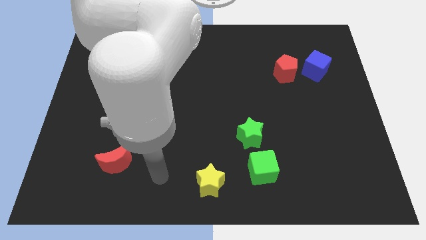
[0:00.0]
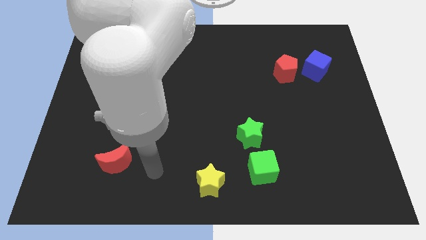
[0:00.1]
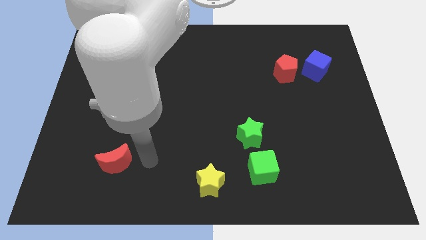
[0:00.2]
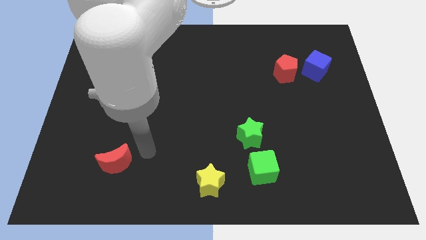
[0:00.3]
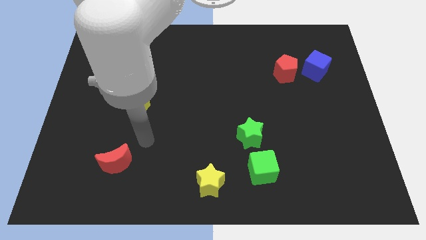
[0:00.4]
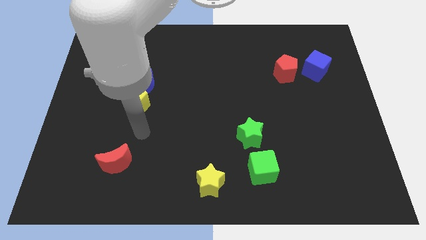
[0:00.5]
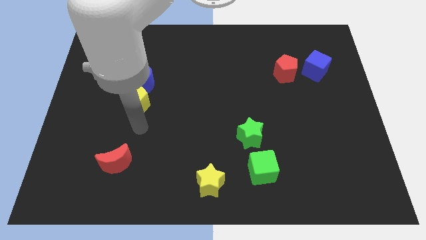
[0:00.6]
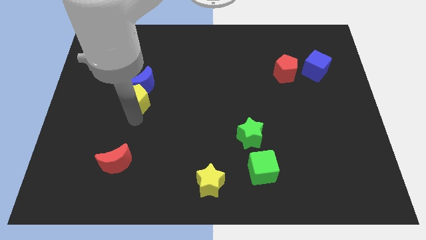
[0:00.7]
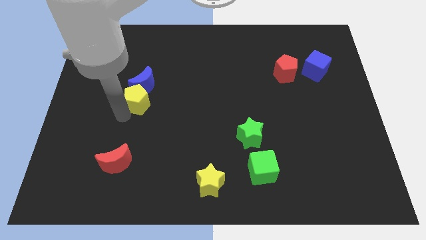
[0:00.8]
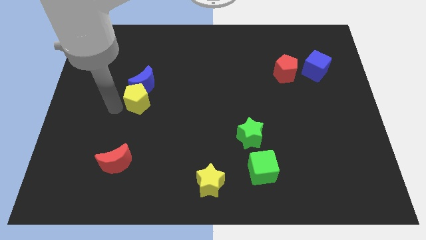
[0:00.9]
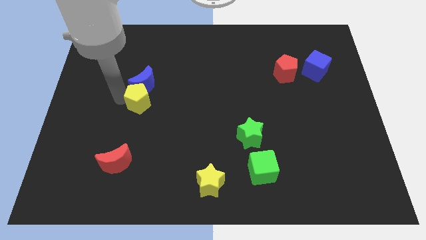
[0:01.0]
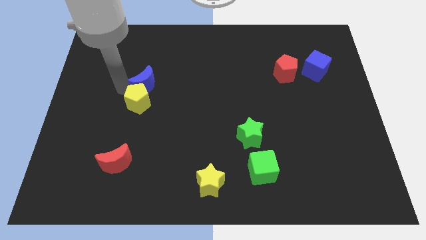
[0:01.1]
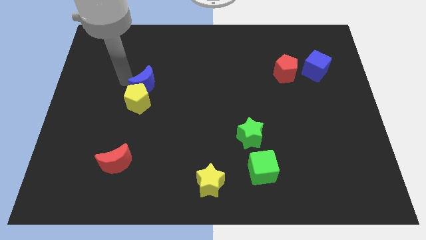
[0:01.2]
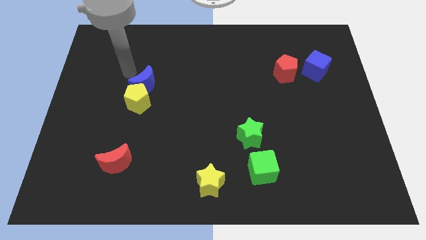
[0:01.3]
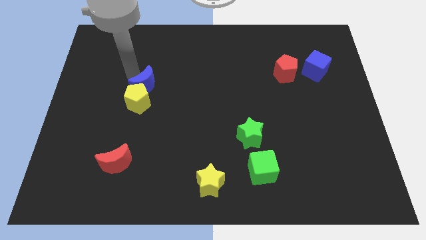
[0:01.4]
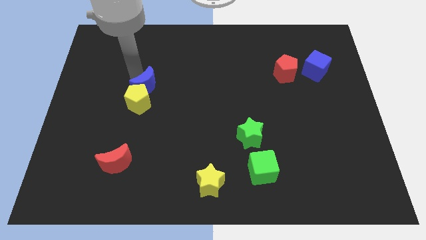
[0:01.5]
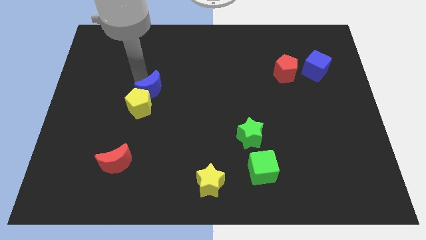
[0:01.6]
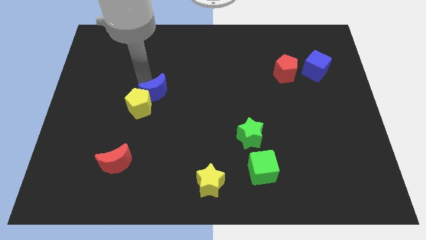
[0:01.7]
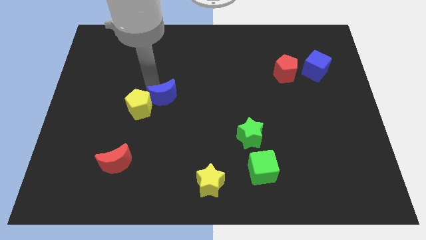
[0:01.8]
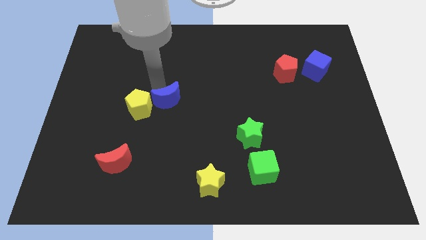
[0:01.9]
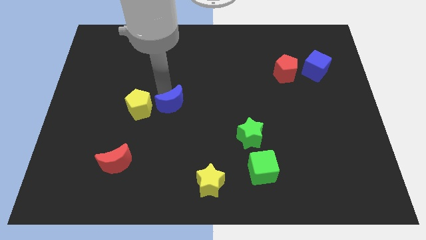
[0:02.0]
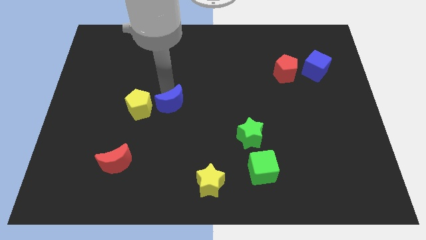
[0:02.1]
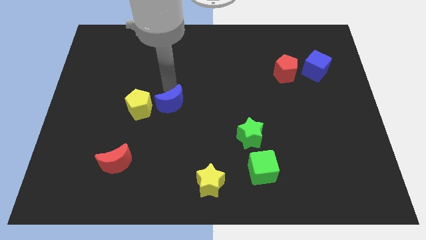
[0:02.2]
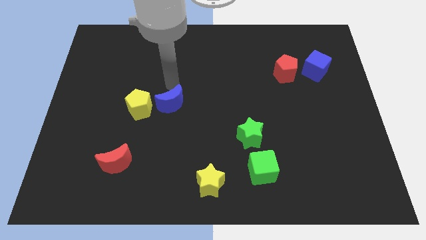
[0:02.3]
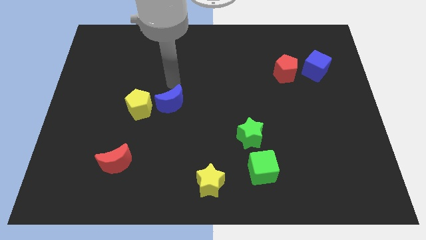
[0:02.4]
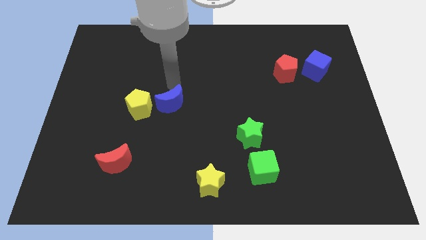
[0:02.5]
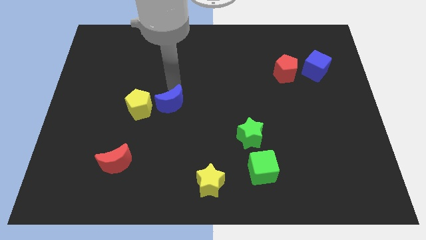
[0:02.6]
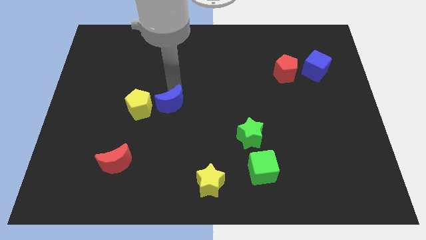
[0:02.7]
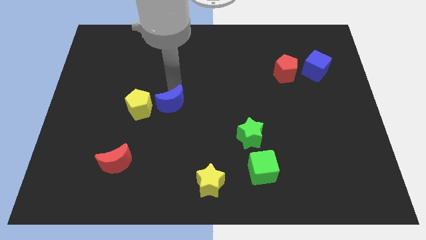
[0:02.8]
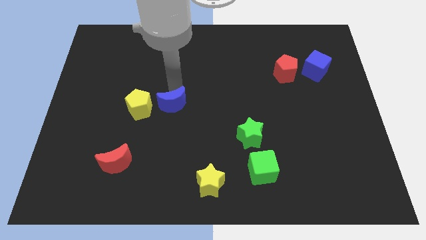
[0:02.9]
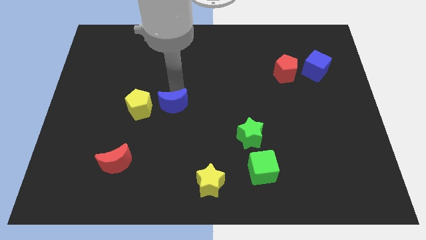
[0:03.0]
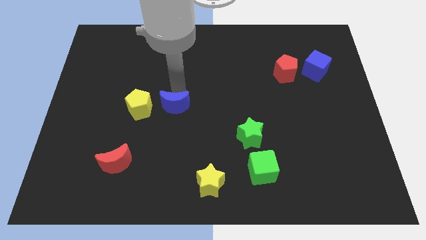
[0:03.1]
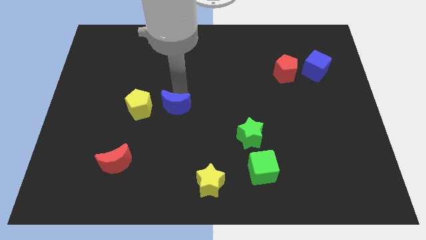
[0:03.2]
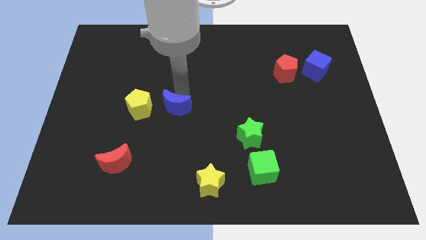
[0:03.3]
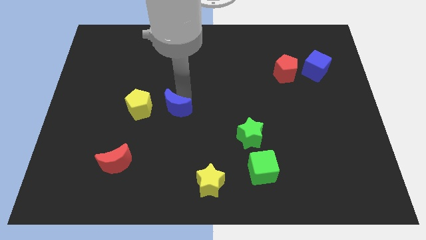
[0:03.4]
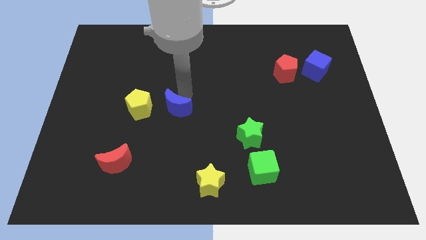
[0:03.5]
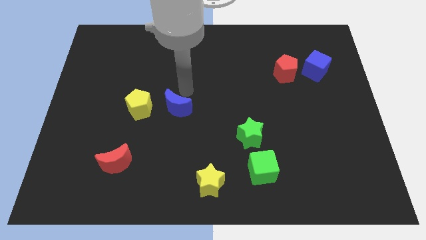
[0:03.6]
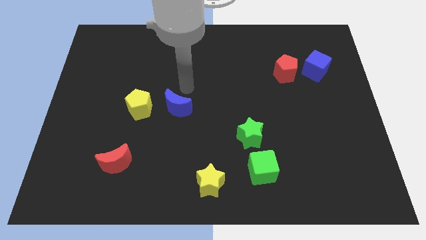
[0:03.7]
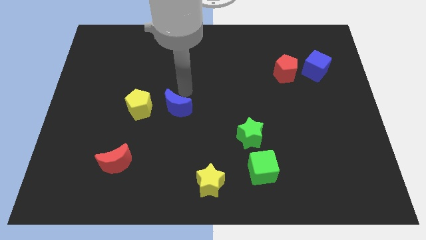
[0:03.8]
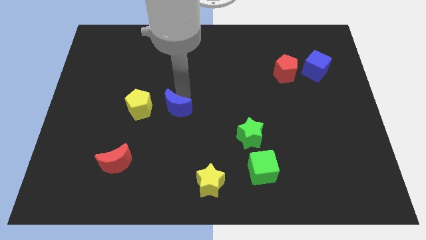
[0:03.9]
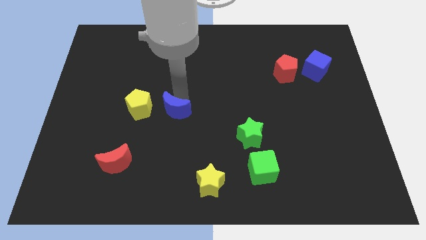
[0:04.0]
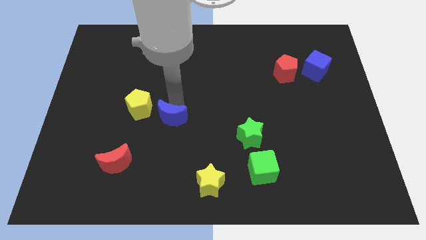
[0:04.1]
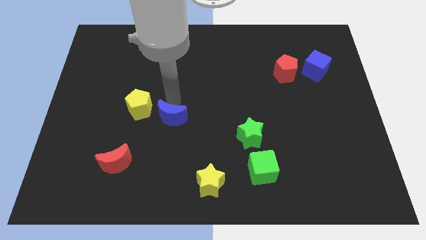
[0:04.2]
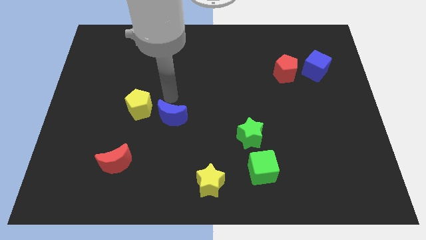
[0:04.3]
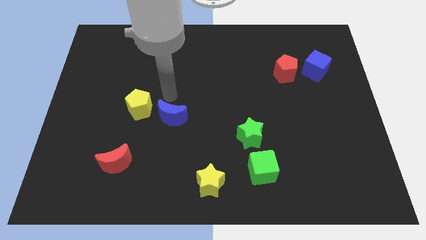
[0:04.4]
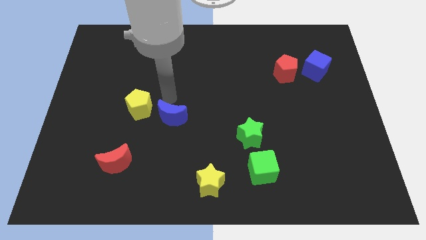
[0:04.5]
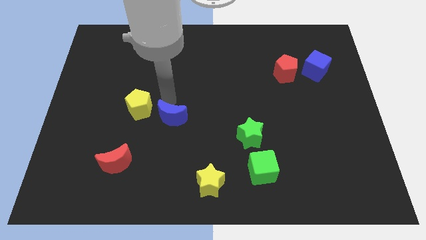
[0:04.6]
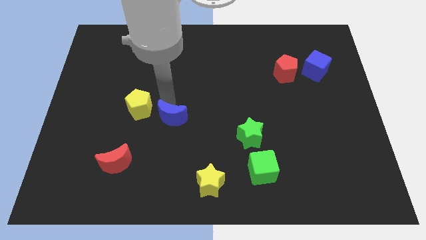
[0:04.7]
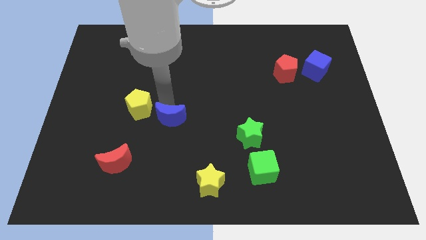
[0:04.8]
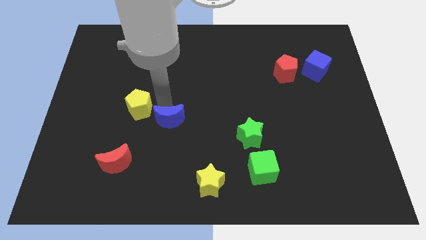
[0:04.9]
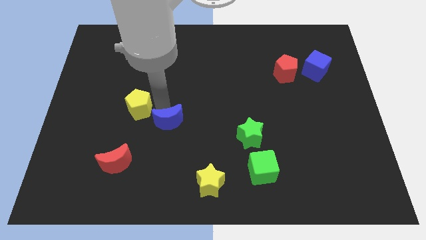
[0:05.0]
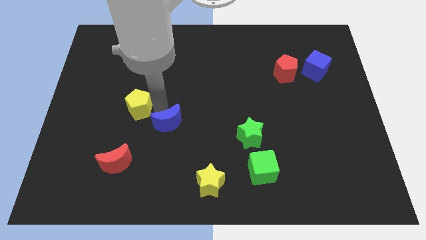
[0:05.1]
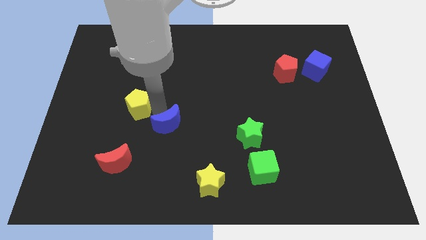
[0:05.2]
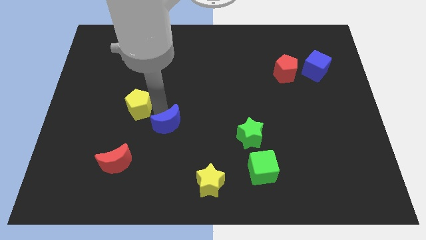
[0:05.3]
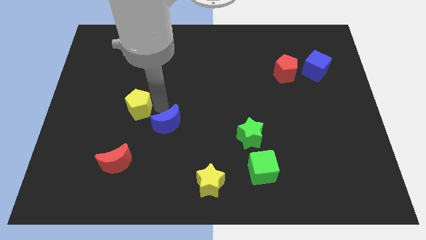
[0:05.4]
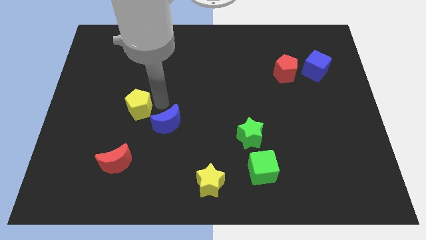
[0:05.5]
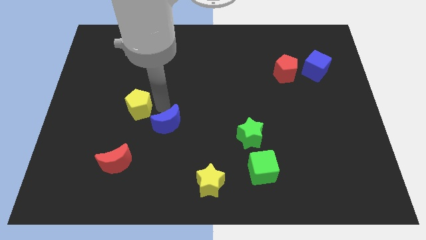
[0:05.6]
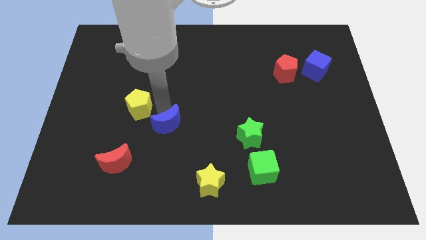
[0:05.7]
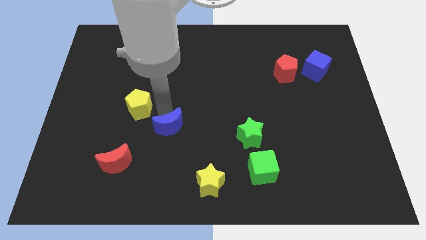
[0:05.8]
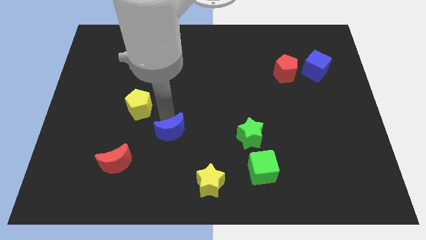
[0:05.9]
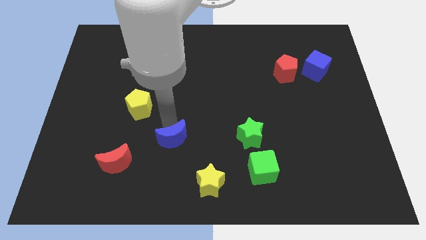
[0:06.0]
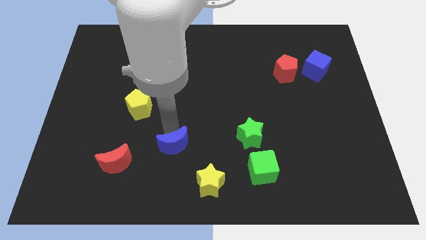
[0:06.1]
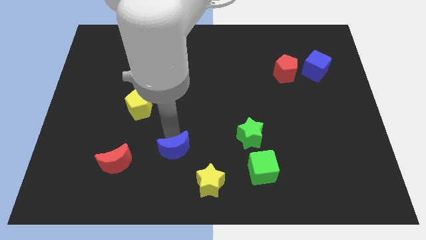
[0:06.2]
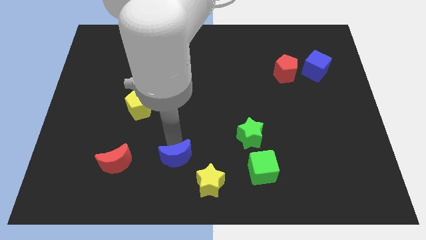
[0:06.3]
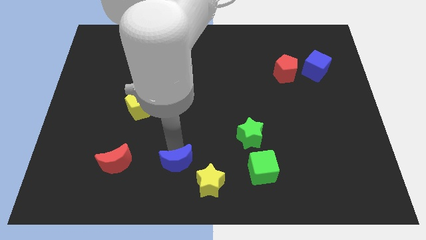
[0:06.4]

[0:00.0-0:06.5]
move the blue moon to the bottom

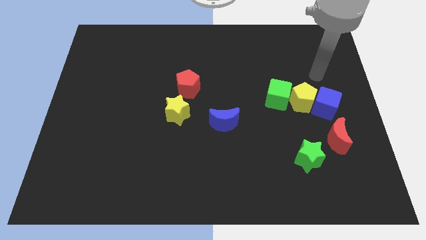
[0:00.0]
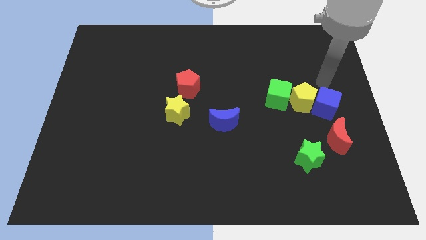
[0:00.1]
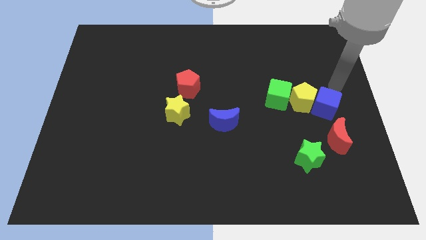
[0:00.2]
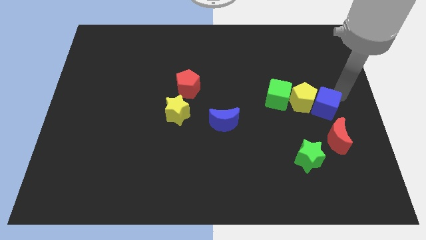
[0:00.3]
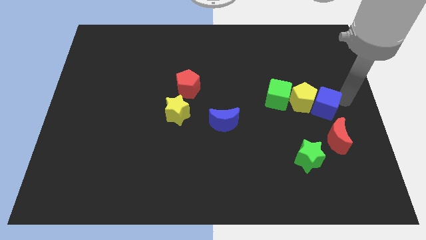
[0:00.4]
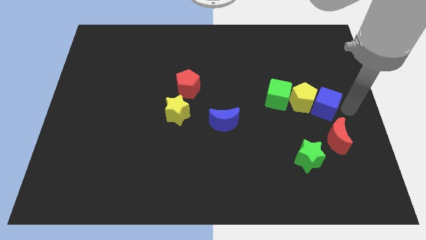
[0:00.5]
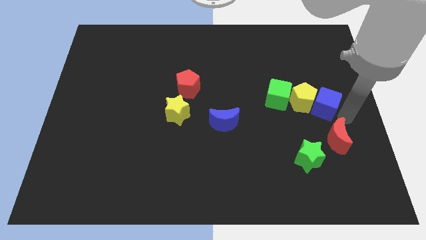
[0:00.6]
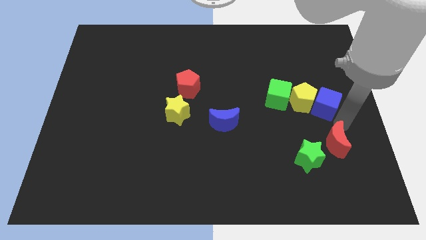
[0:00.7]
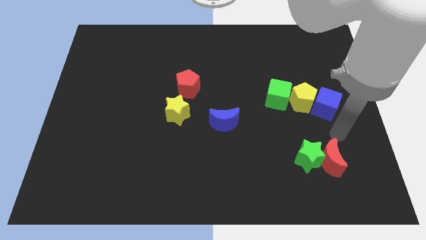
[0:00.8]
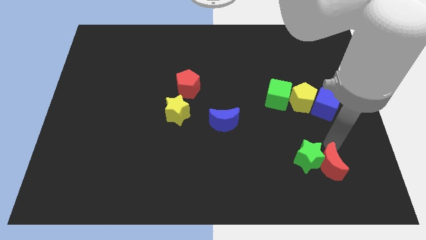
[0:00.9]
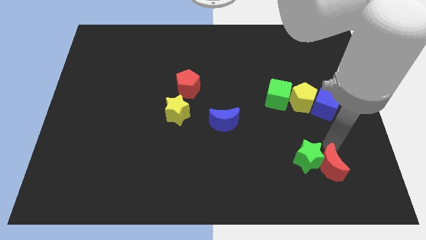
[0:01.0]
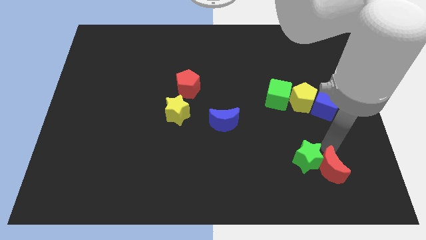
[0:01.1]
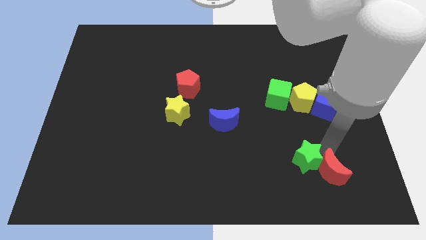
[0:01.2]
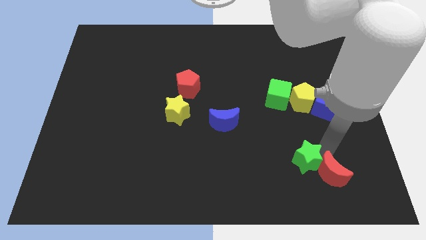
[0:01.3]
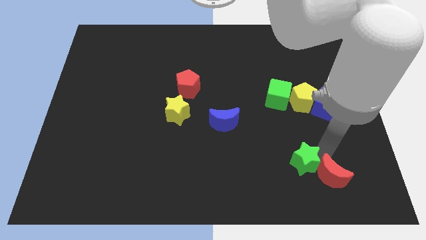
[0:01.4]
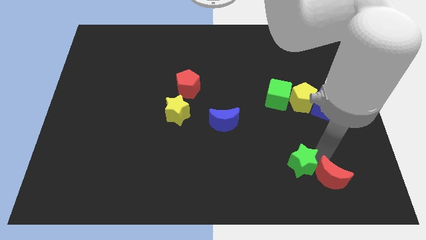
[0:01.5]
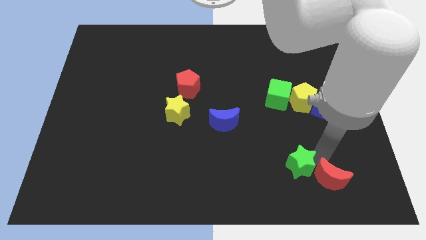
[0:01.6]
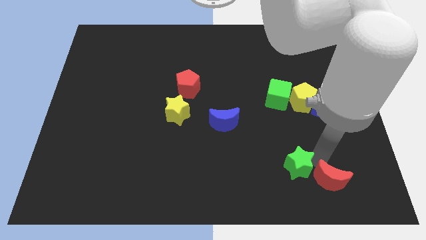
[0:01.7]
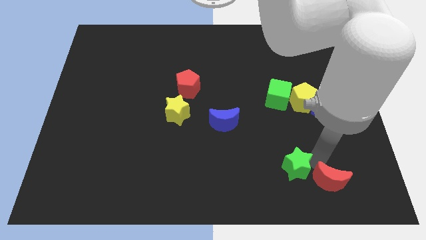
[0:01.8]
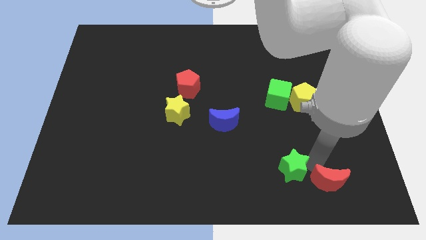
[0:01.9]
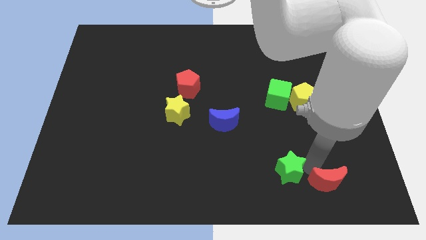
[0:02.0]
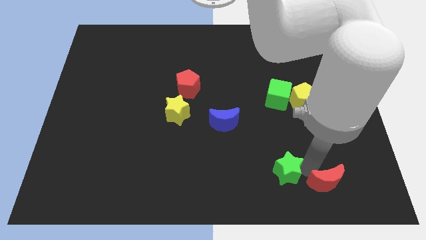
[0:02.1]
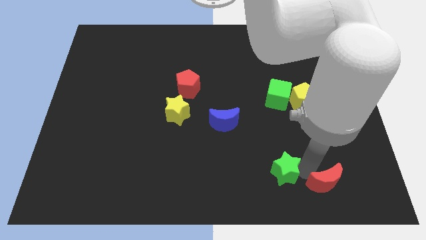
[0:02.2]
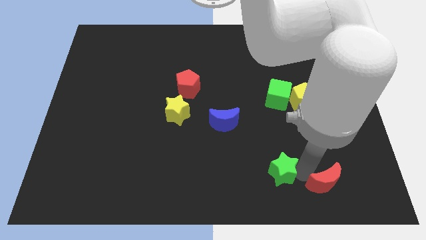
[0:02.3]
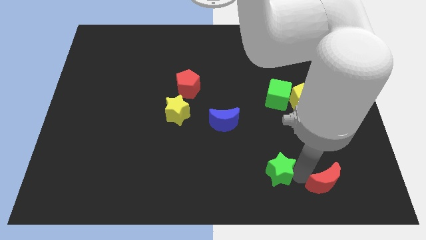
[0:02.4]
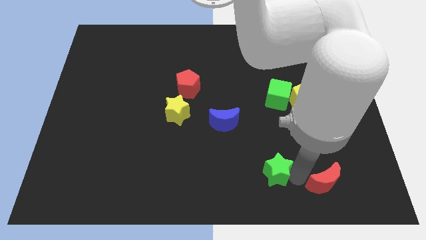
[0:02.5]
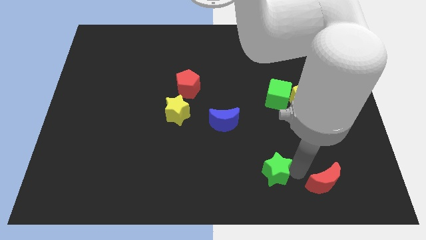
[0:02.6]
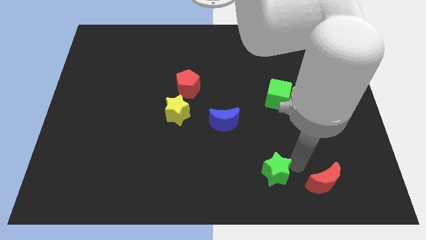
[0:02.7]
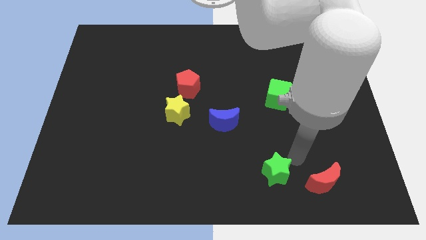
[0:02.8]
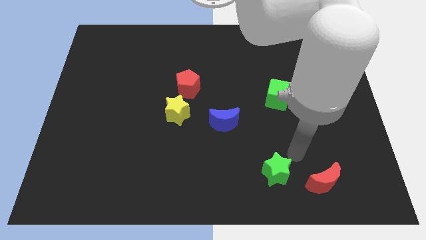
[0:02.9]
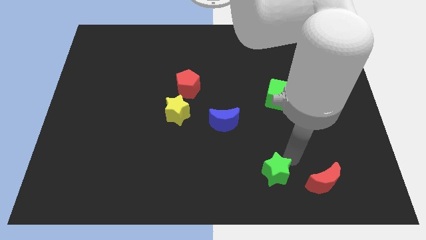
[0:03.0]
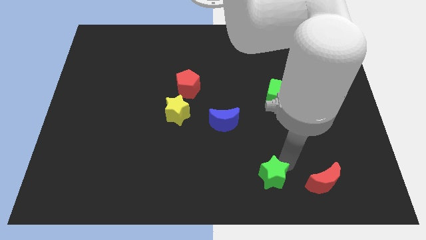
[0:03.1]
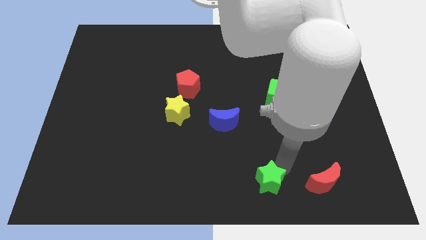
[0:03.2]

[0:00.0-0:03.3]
move the green star to the bottom
